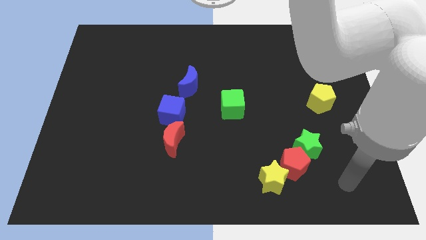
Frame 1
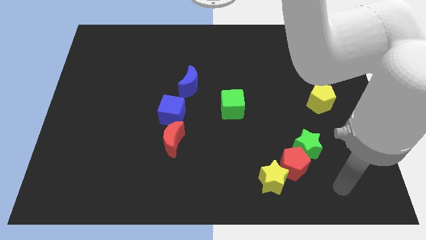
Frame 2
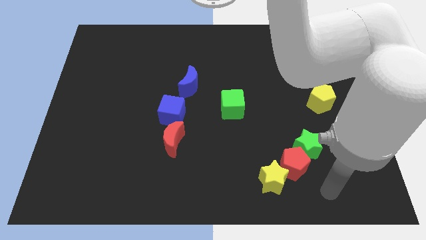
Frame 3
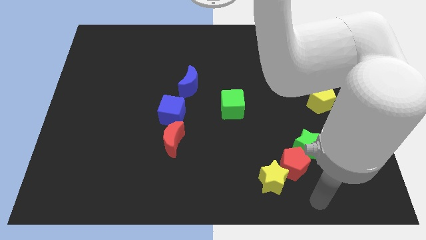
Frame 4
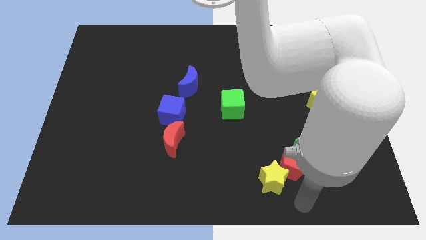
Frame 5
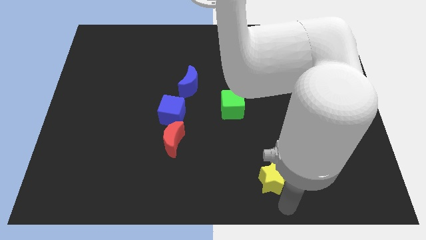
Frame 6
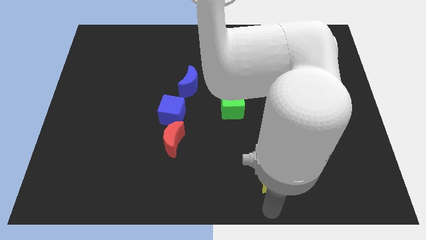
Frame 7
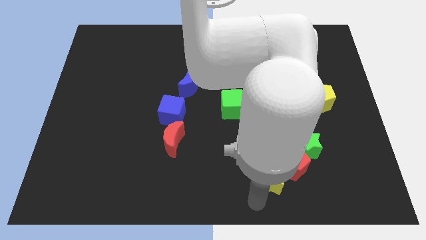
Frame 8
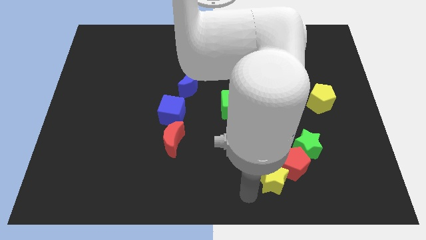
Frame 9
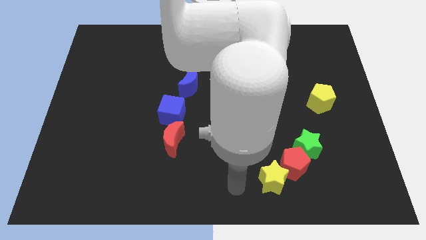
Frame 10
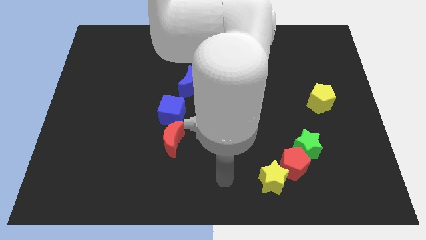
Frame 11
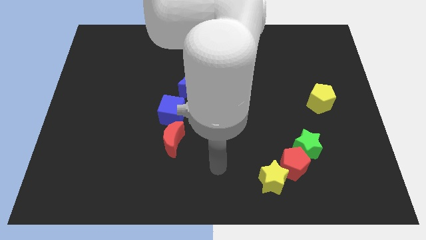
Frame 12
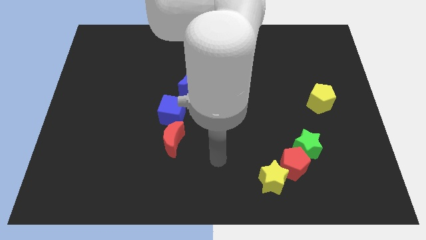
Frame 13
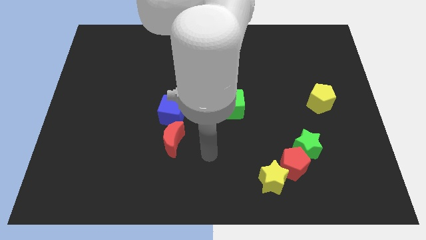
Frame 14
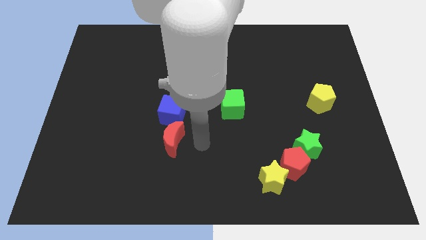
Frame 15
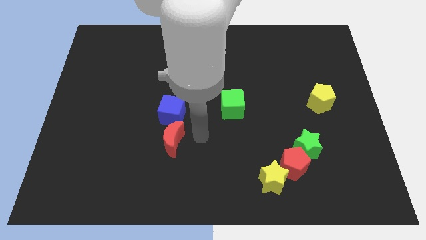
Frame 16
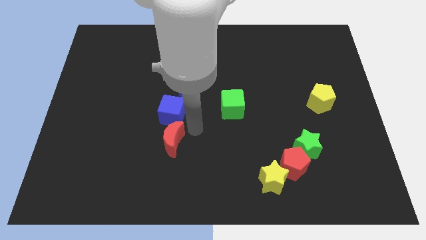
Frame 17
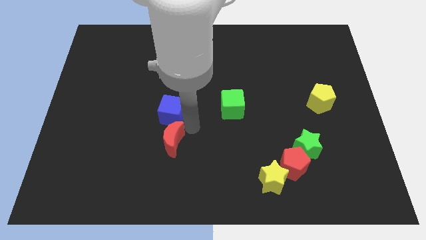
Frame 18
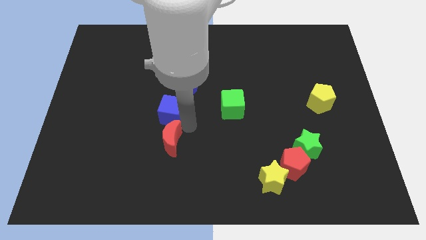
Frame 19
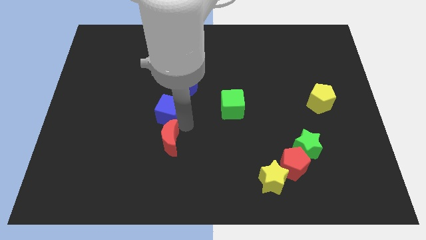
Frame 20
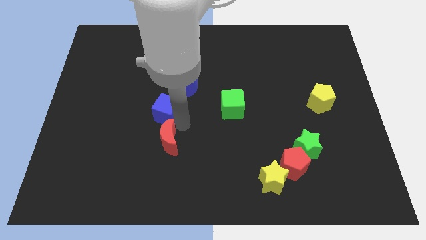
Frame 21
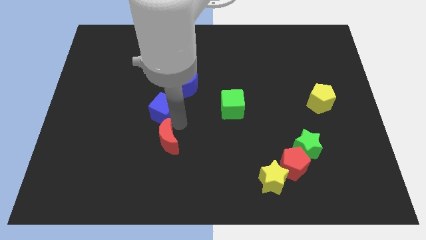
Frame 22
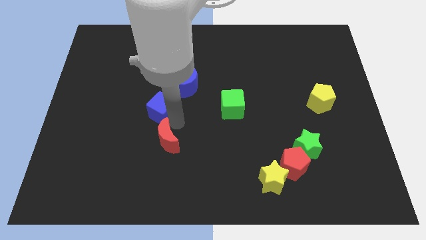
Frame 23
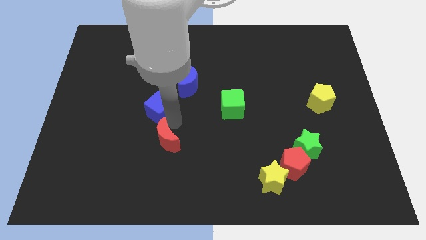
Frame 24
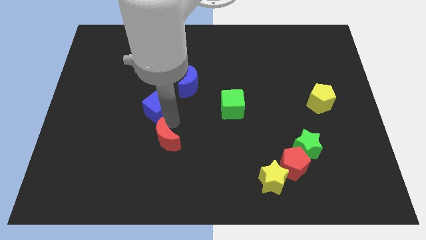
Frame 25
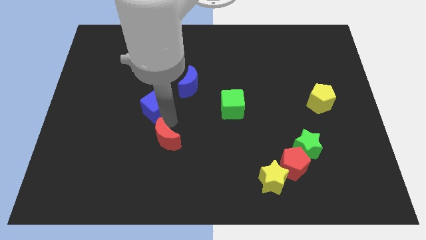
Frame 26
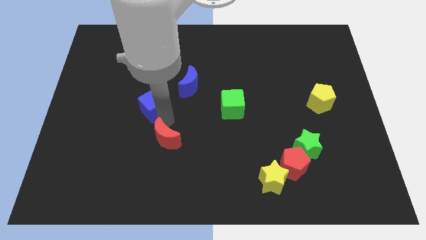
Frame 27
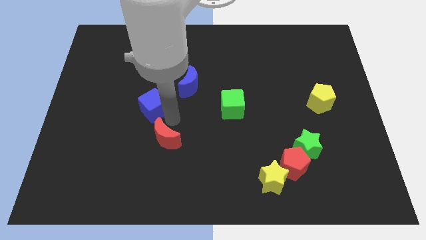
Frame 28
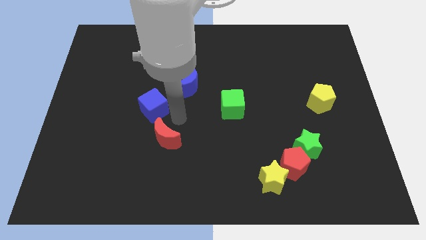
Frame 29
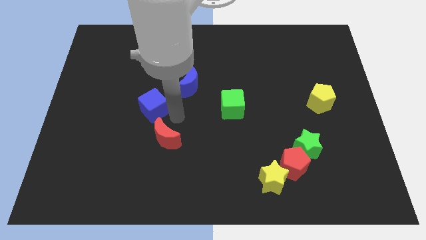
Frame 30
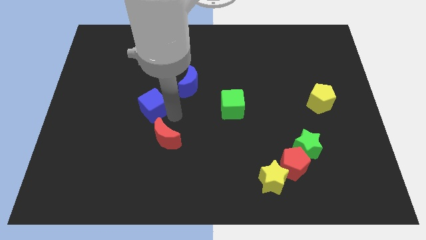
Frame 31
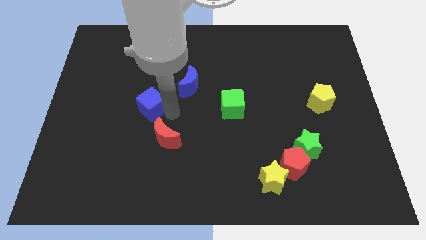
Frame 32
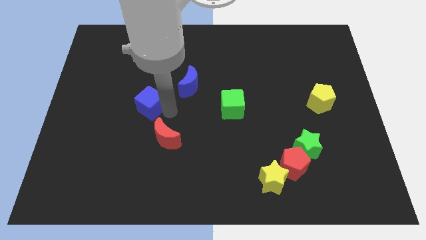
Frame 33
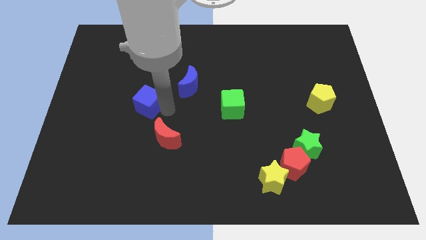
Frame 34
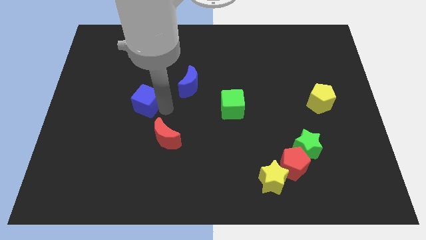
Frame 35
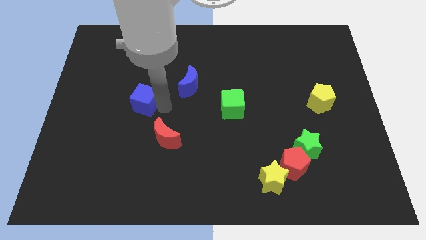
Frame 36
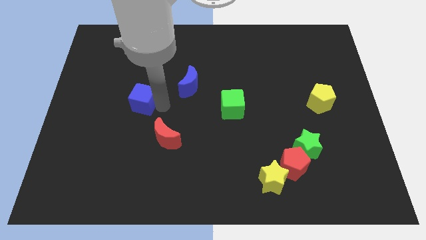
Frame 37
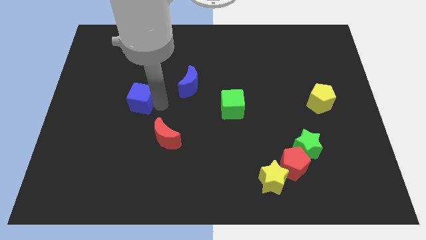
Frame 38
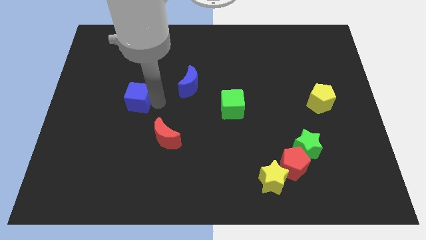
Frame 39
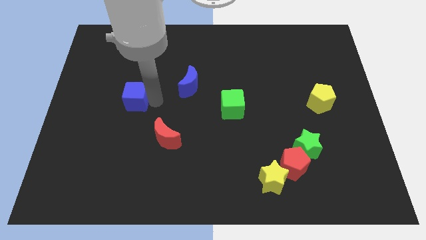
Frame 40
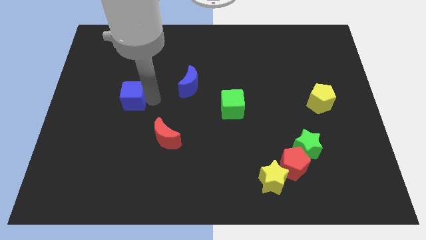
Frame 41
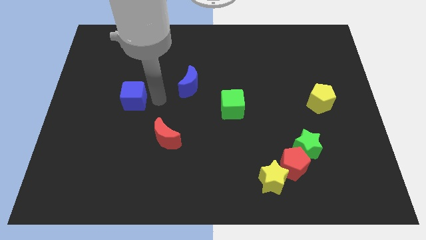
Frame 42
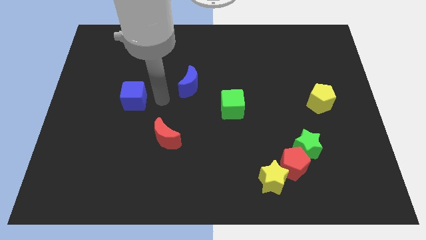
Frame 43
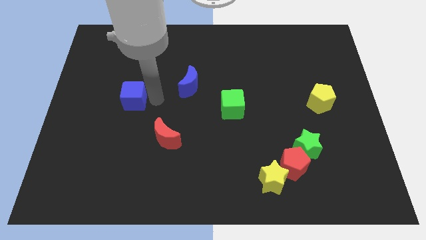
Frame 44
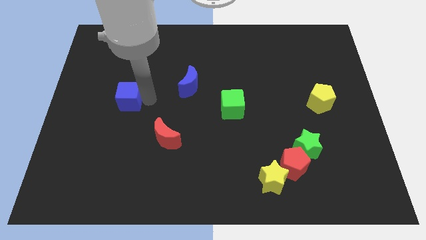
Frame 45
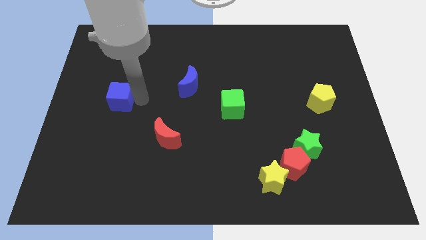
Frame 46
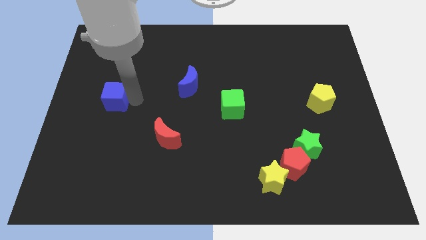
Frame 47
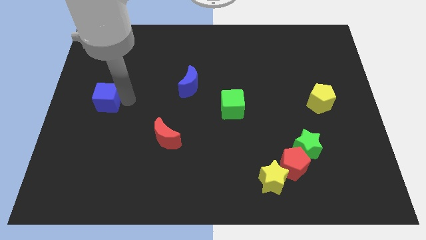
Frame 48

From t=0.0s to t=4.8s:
push the blue cube to the center left

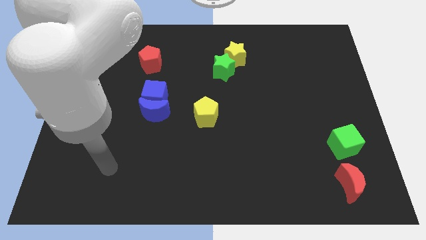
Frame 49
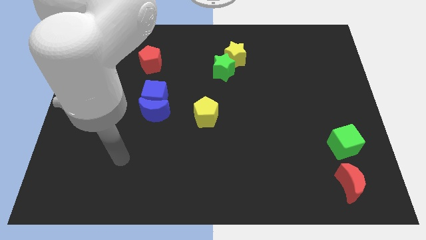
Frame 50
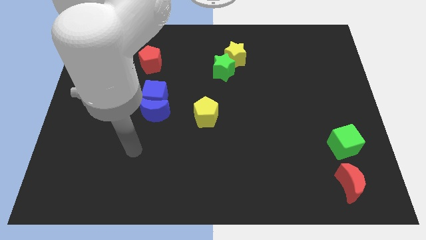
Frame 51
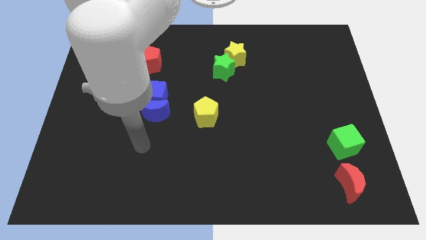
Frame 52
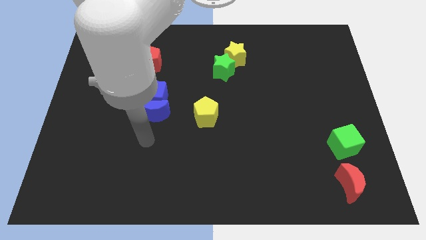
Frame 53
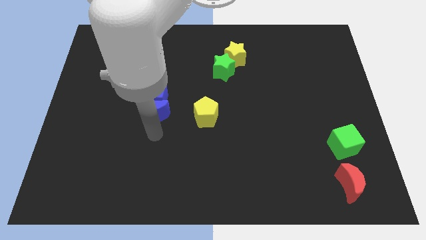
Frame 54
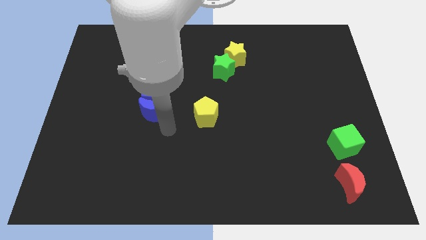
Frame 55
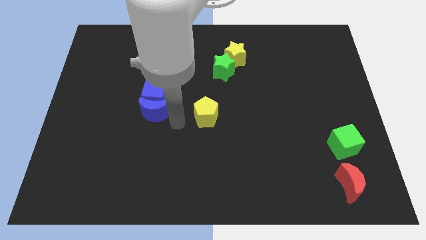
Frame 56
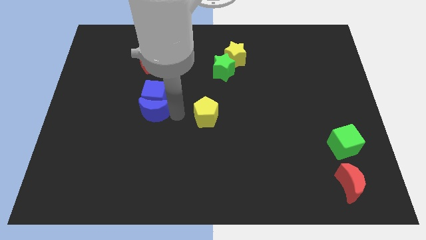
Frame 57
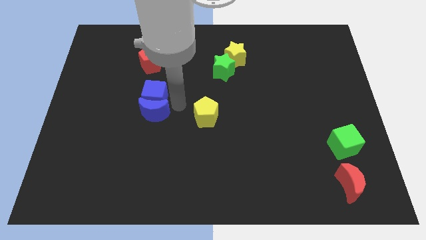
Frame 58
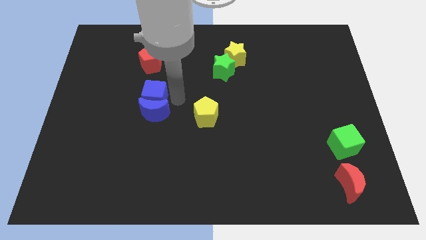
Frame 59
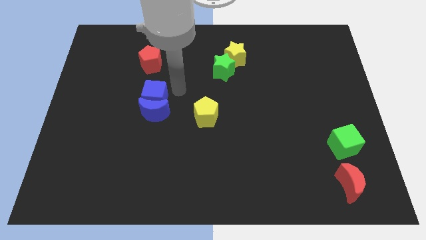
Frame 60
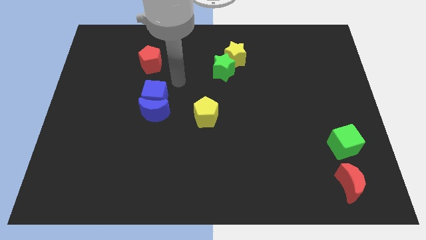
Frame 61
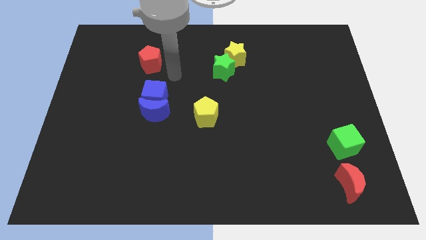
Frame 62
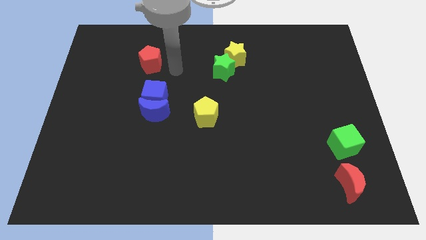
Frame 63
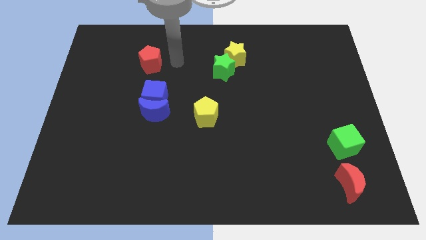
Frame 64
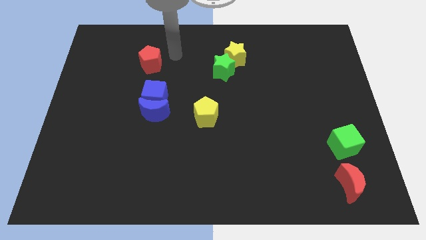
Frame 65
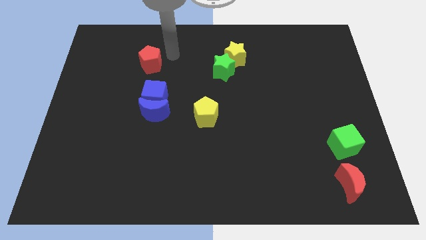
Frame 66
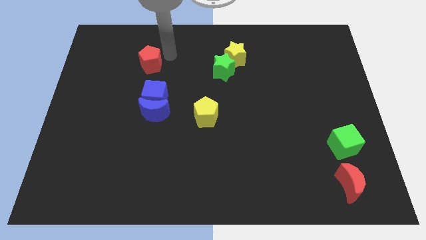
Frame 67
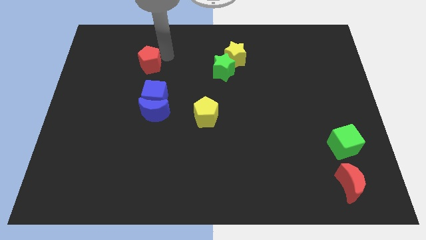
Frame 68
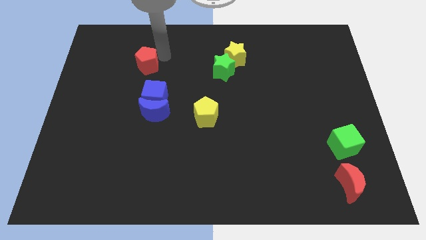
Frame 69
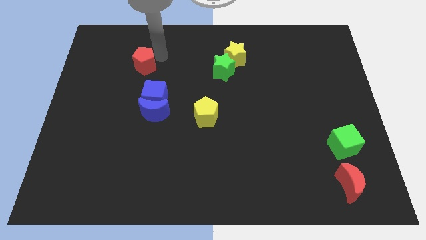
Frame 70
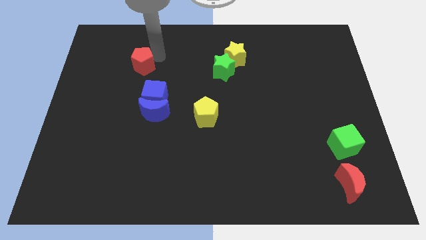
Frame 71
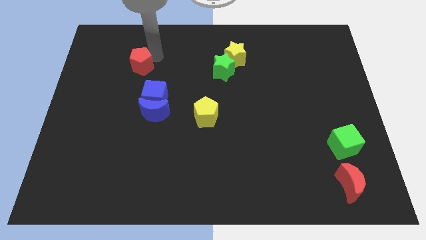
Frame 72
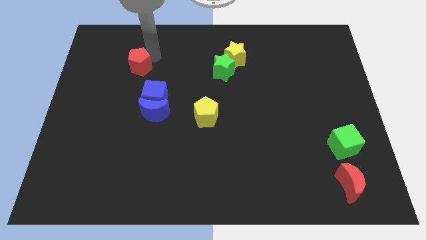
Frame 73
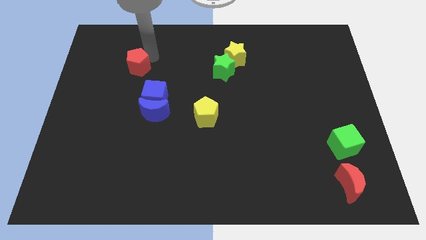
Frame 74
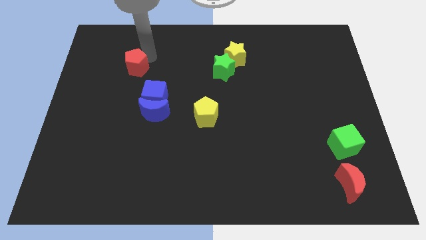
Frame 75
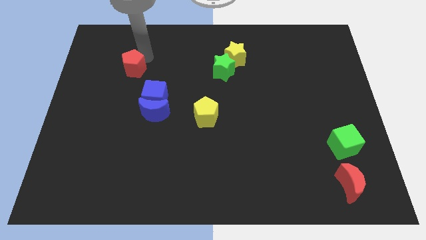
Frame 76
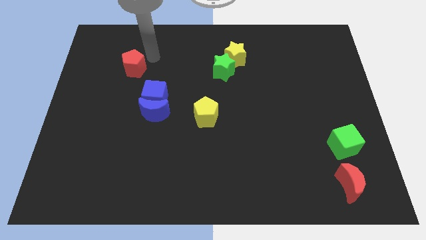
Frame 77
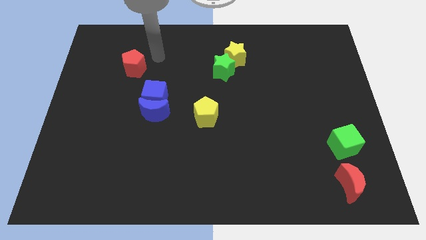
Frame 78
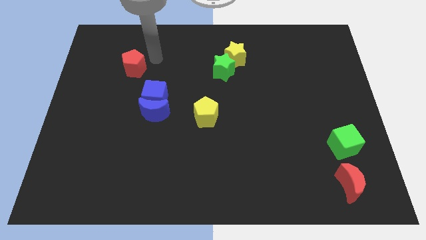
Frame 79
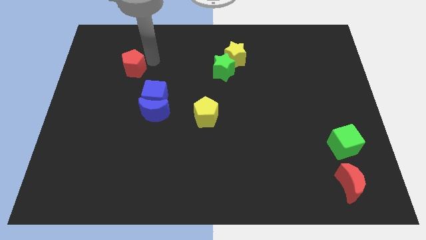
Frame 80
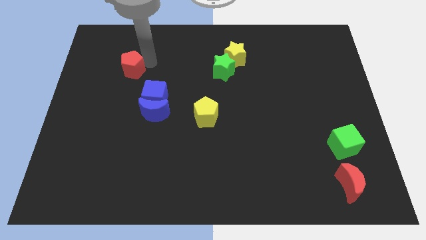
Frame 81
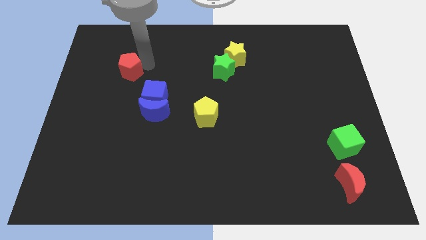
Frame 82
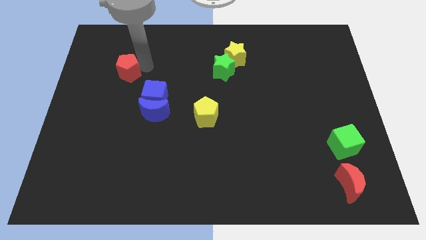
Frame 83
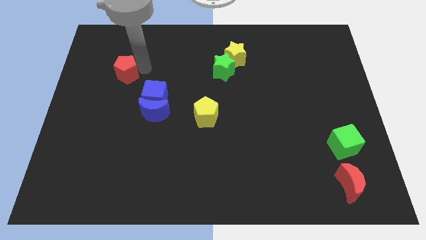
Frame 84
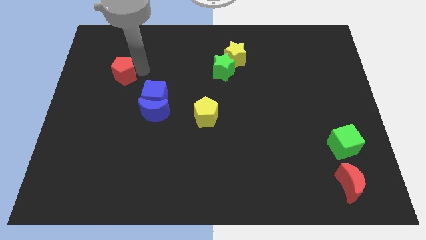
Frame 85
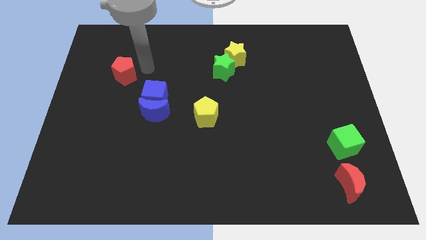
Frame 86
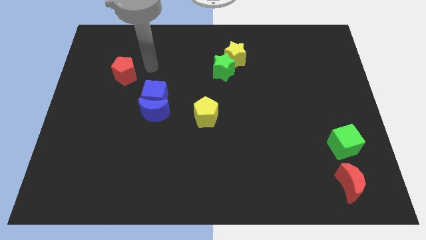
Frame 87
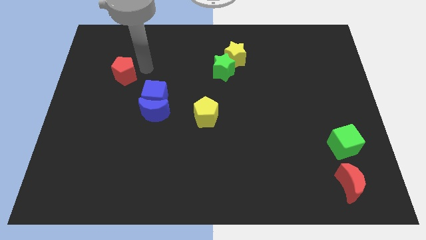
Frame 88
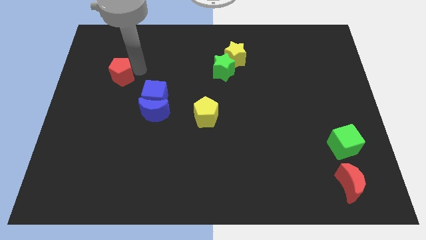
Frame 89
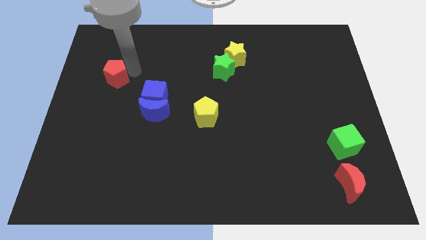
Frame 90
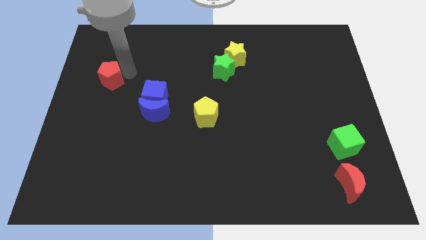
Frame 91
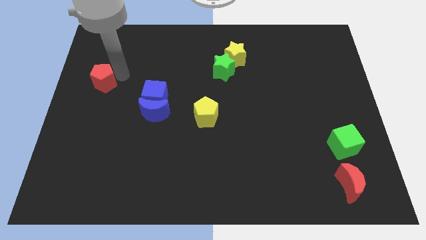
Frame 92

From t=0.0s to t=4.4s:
put the red pentagon to the left side of the board
